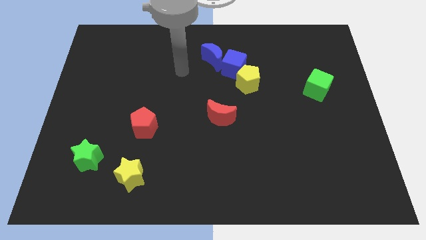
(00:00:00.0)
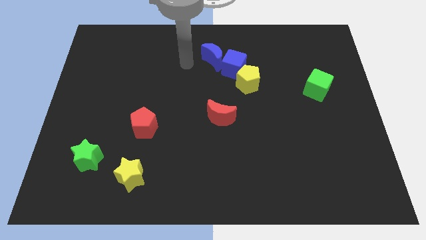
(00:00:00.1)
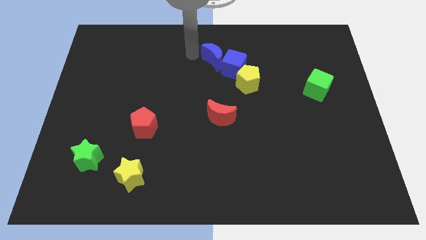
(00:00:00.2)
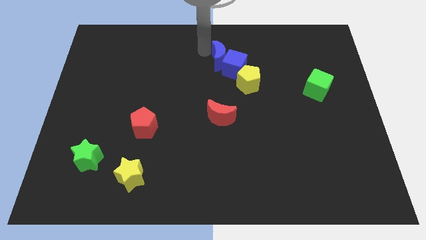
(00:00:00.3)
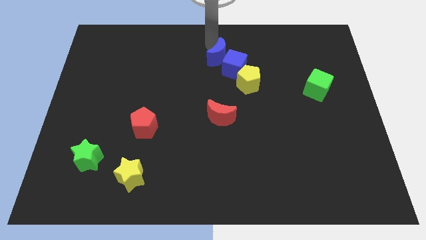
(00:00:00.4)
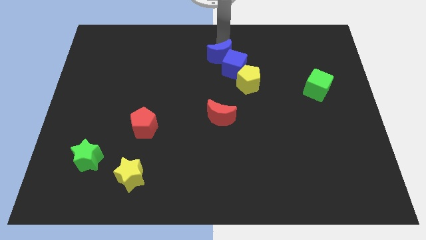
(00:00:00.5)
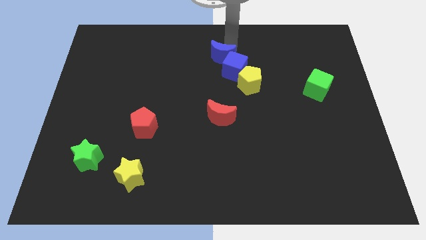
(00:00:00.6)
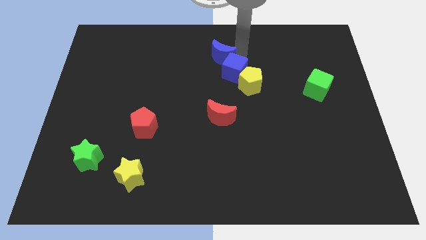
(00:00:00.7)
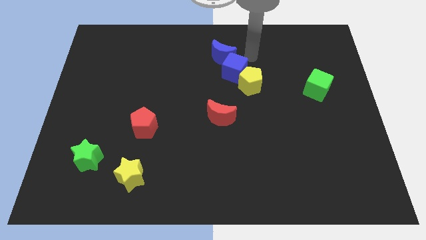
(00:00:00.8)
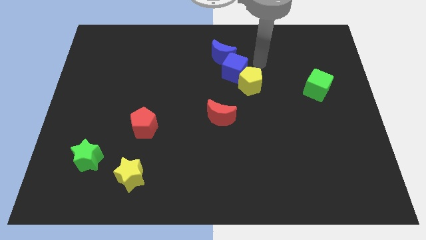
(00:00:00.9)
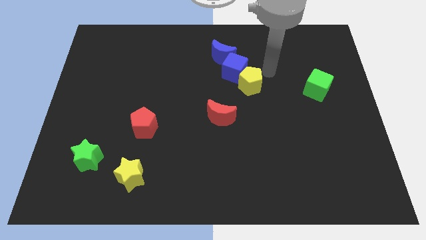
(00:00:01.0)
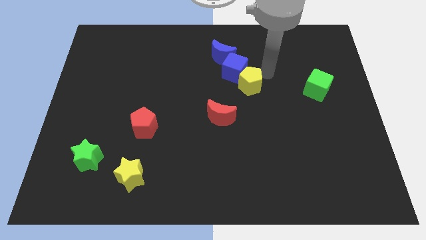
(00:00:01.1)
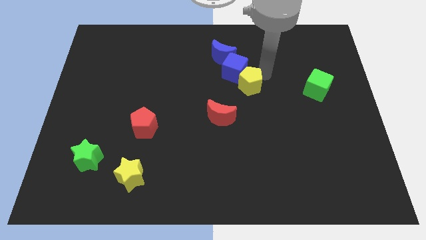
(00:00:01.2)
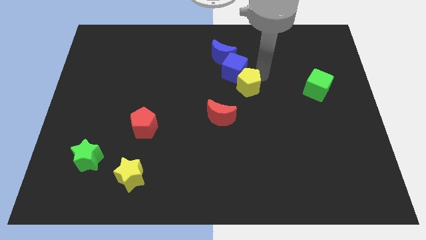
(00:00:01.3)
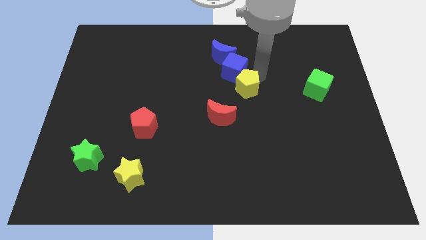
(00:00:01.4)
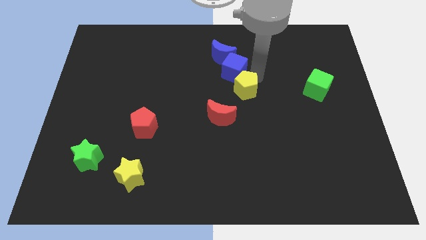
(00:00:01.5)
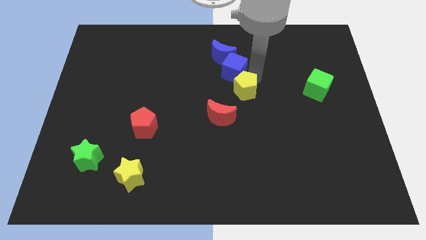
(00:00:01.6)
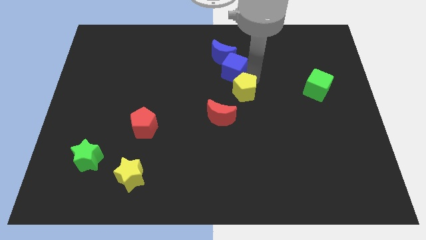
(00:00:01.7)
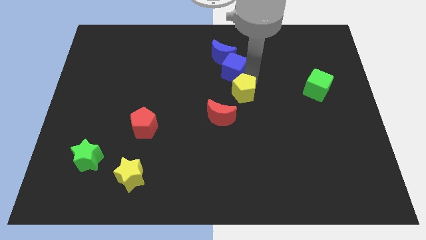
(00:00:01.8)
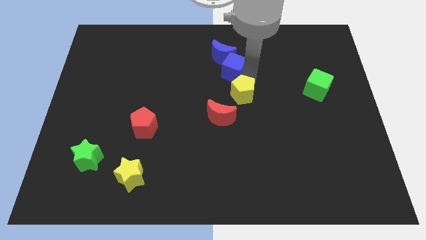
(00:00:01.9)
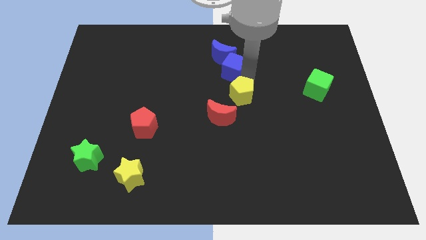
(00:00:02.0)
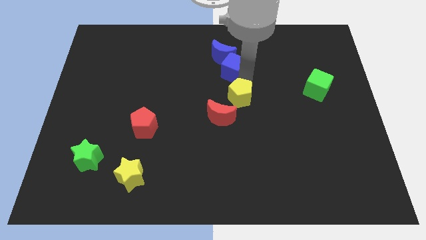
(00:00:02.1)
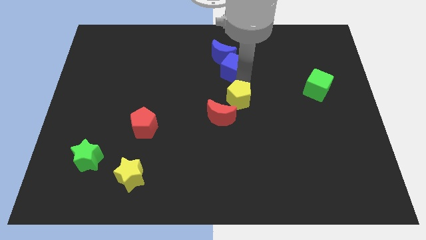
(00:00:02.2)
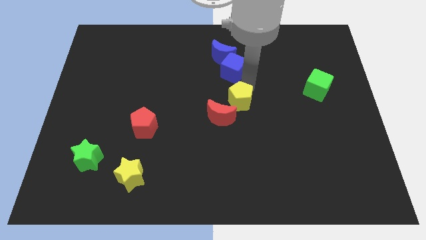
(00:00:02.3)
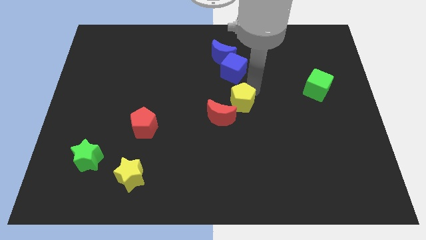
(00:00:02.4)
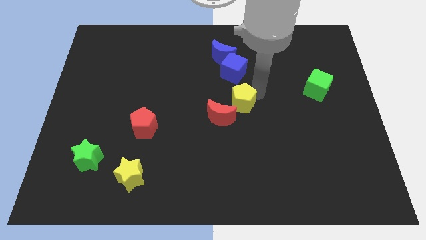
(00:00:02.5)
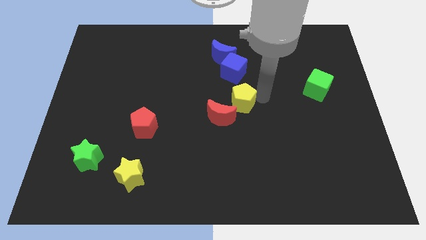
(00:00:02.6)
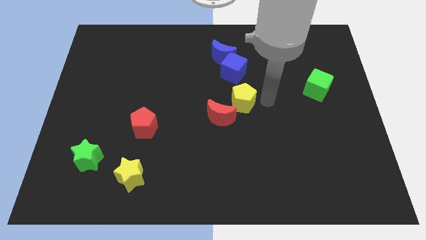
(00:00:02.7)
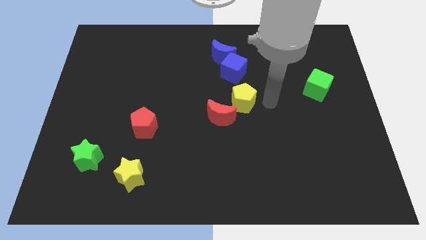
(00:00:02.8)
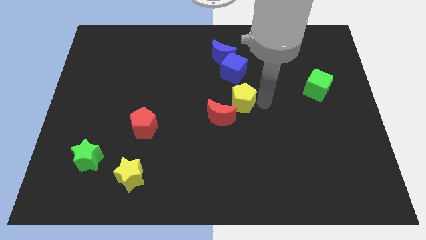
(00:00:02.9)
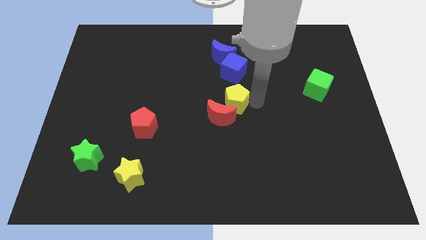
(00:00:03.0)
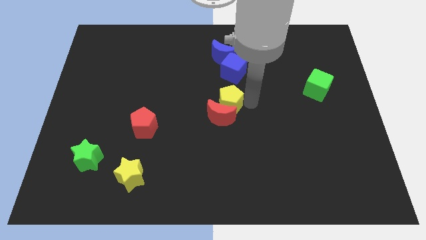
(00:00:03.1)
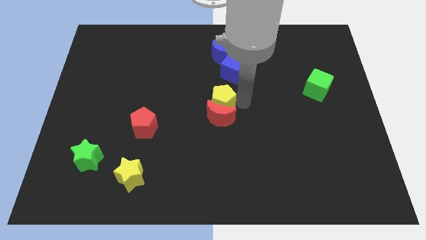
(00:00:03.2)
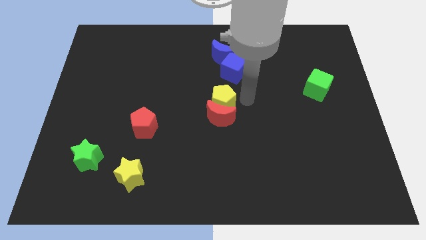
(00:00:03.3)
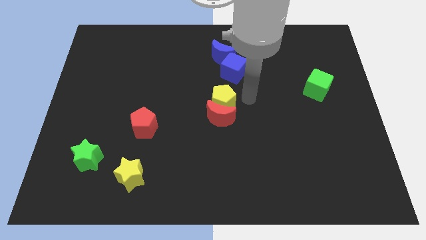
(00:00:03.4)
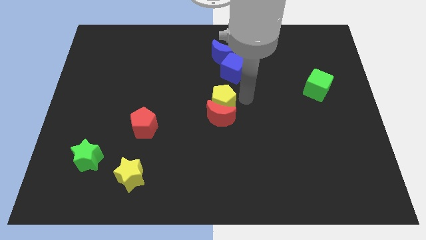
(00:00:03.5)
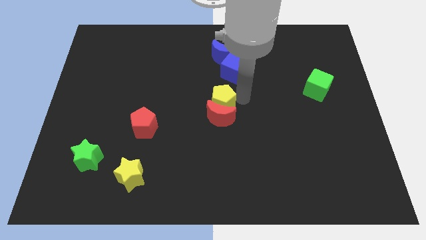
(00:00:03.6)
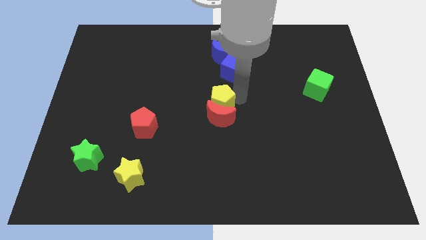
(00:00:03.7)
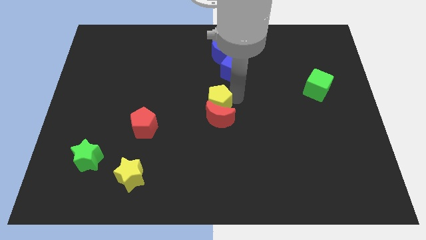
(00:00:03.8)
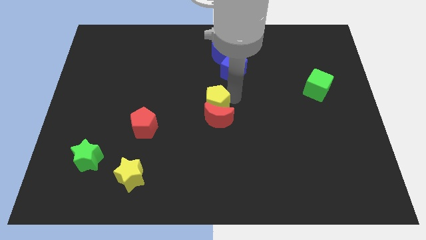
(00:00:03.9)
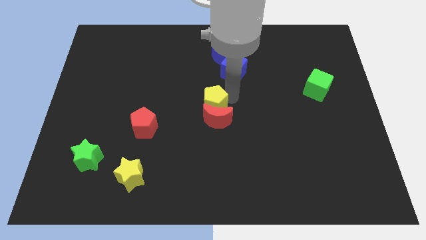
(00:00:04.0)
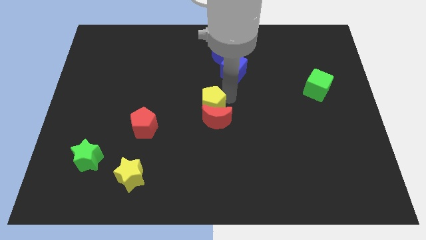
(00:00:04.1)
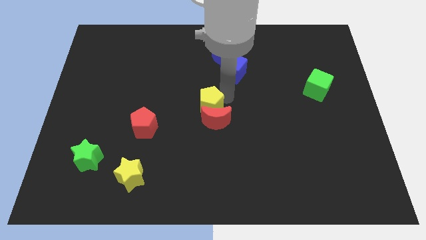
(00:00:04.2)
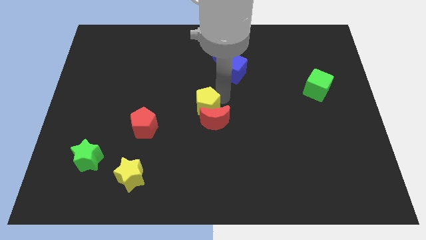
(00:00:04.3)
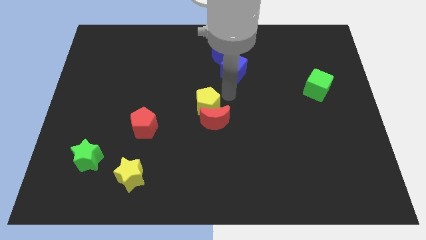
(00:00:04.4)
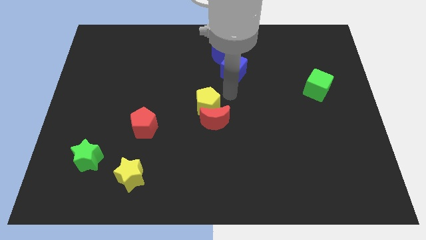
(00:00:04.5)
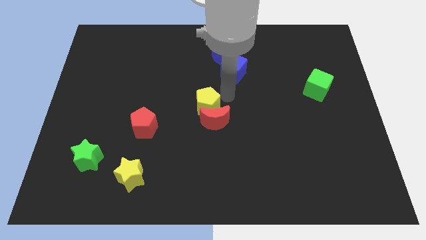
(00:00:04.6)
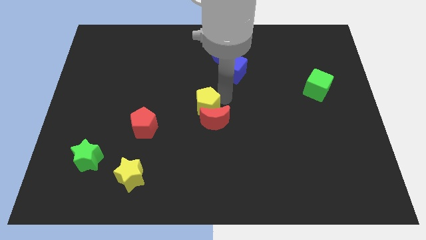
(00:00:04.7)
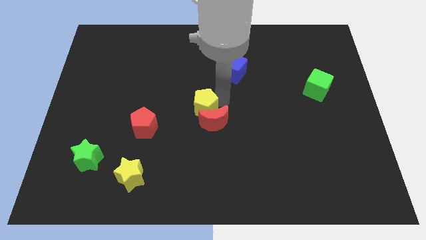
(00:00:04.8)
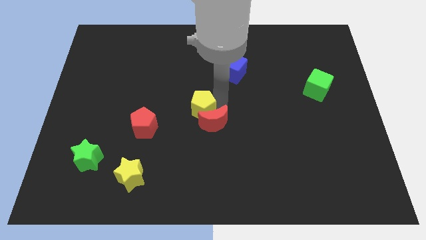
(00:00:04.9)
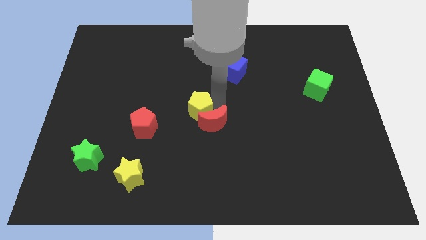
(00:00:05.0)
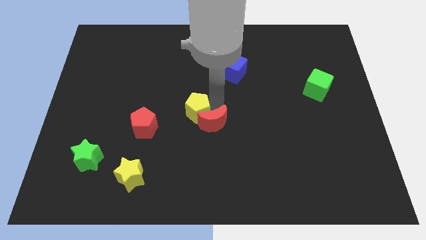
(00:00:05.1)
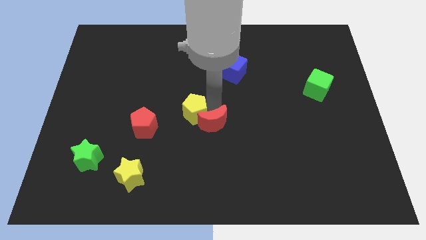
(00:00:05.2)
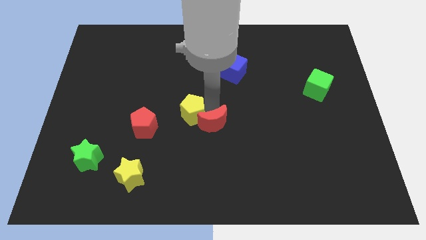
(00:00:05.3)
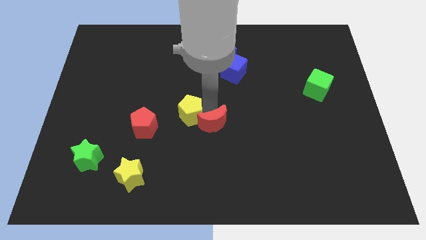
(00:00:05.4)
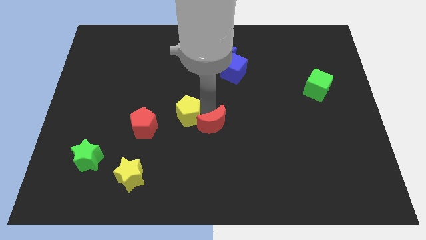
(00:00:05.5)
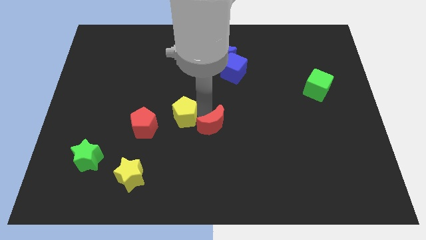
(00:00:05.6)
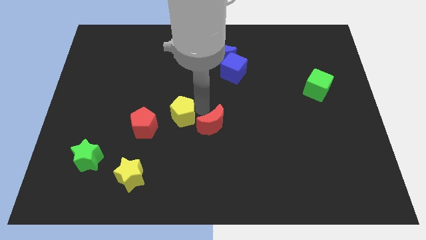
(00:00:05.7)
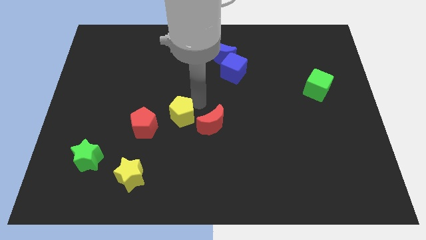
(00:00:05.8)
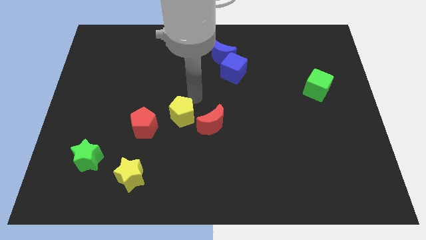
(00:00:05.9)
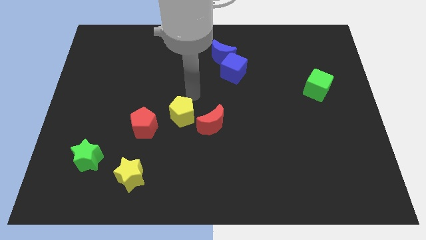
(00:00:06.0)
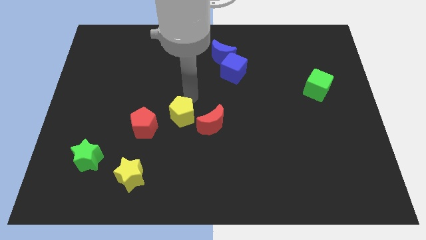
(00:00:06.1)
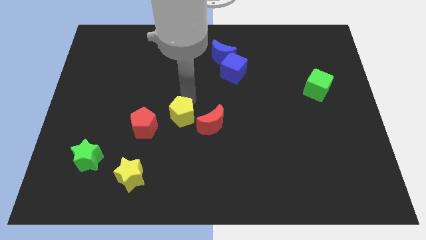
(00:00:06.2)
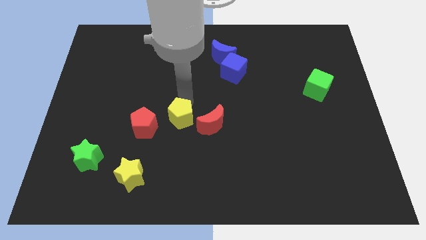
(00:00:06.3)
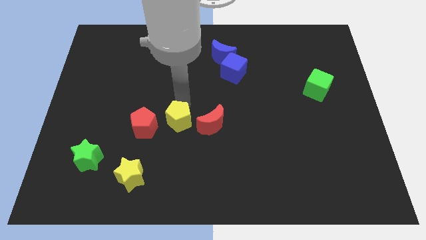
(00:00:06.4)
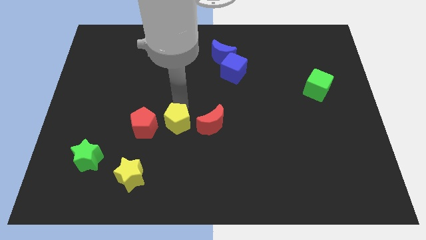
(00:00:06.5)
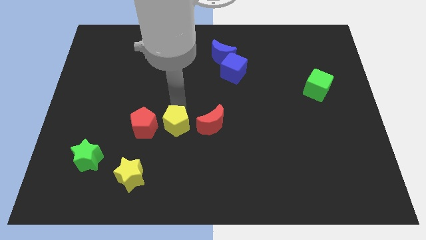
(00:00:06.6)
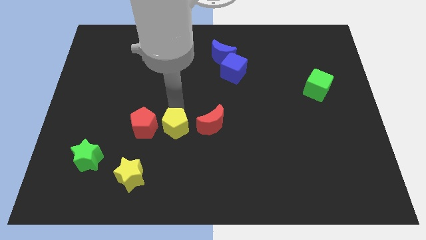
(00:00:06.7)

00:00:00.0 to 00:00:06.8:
put the yellow pentagon to the bottom right of the red pentagon

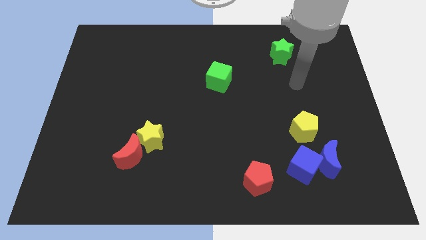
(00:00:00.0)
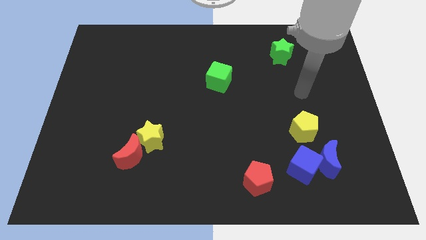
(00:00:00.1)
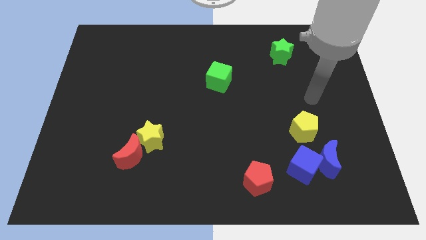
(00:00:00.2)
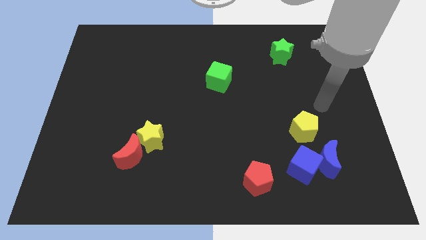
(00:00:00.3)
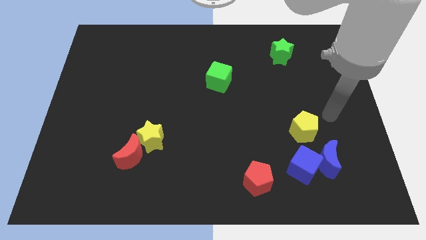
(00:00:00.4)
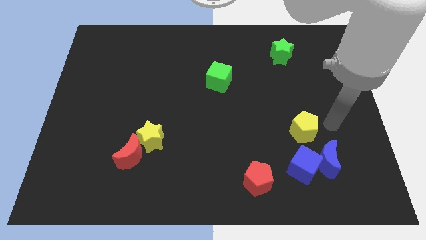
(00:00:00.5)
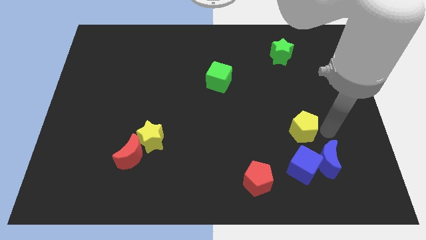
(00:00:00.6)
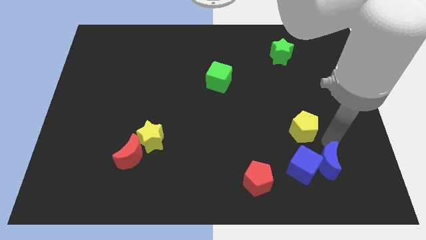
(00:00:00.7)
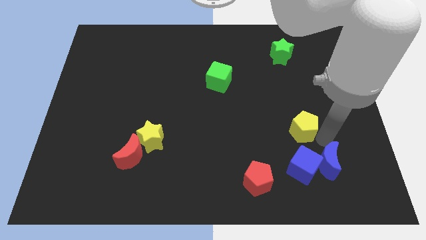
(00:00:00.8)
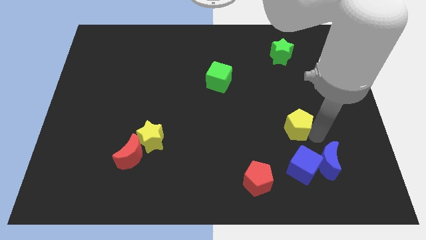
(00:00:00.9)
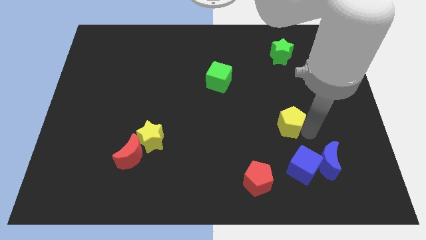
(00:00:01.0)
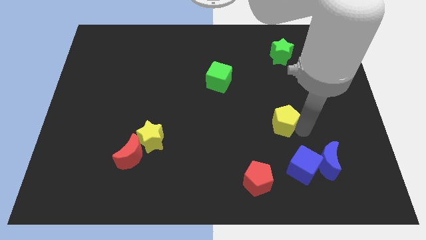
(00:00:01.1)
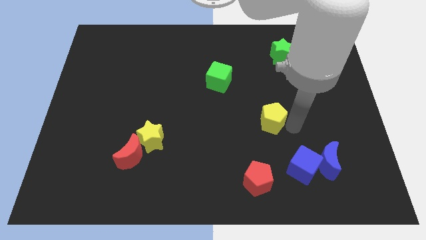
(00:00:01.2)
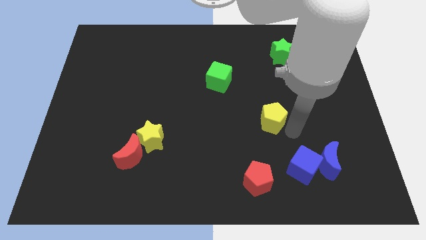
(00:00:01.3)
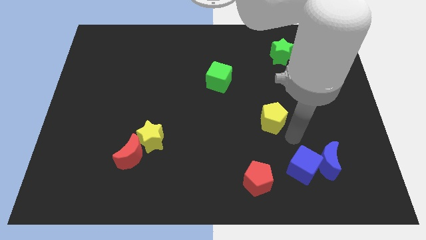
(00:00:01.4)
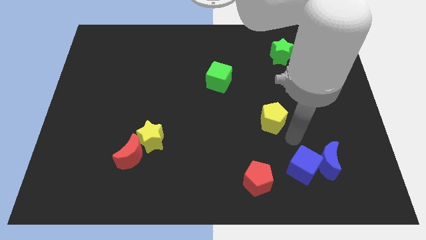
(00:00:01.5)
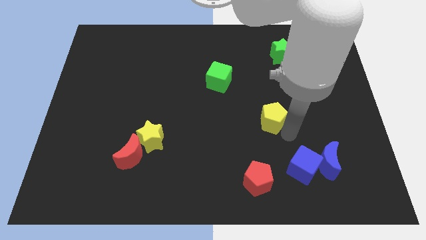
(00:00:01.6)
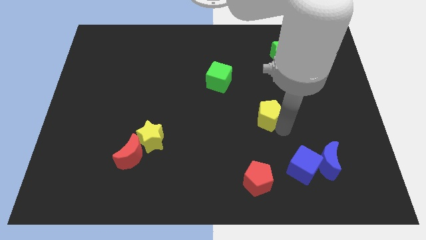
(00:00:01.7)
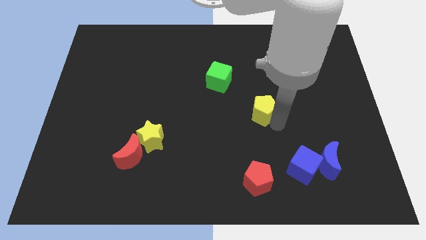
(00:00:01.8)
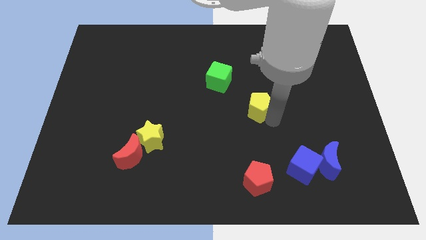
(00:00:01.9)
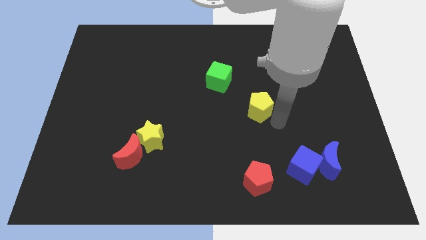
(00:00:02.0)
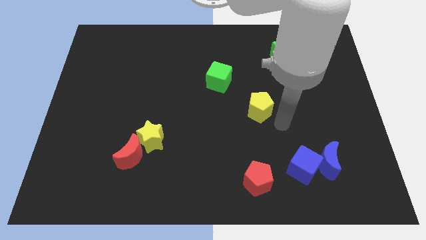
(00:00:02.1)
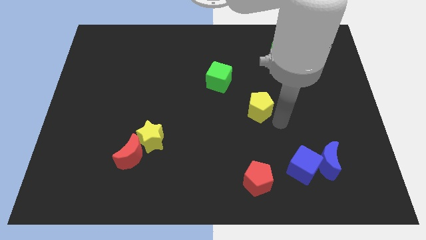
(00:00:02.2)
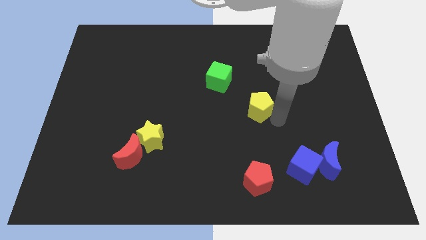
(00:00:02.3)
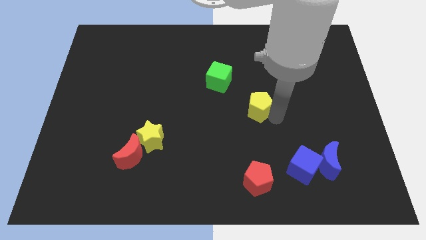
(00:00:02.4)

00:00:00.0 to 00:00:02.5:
put the yellow pentagon to the bottom right side of the green cube
